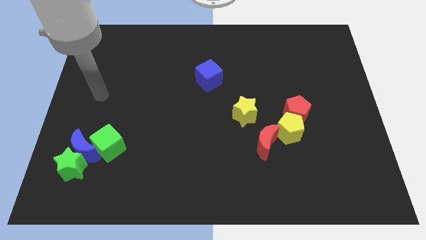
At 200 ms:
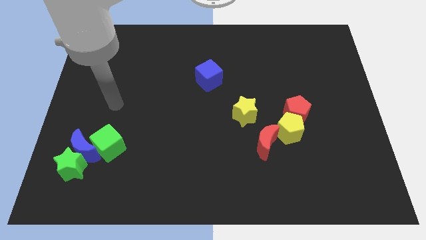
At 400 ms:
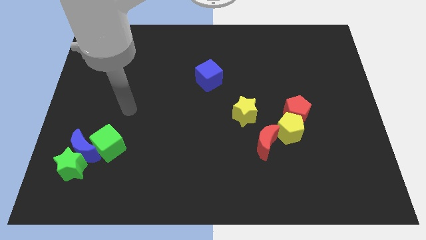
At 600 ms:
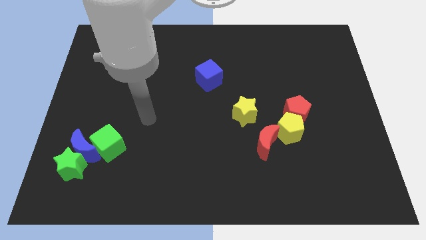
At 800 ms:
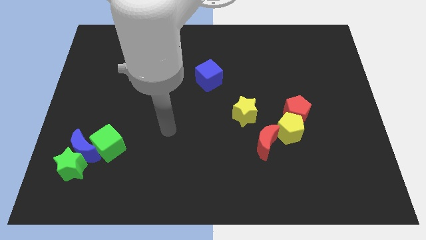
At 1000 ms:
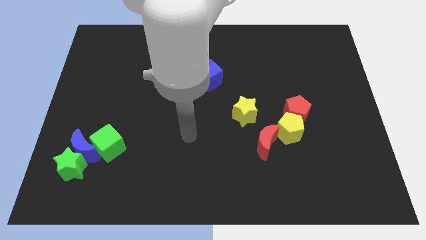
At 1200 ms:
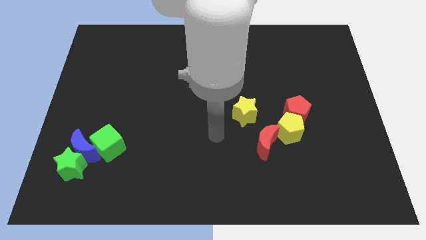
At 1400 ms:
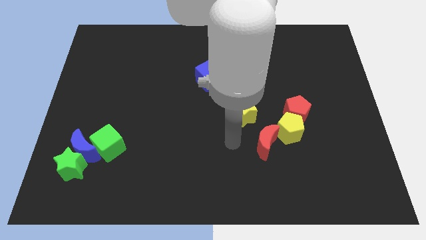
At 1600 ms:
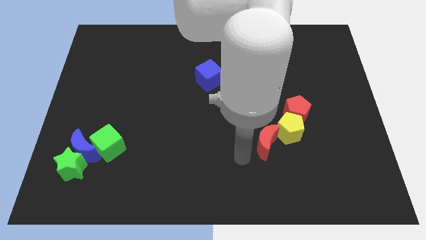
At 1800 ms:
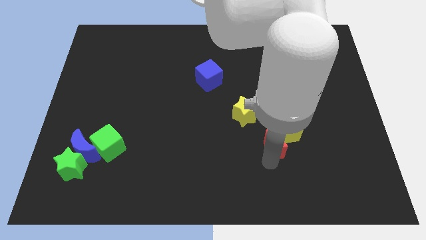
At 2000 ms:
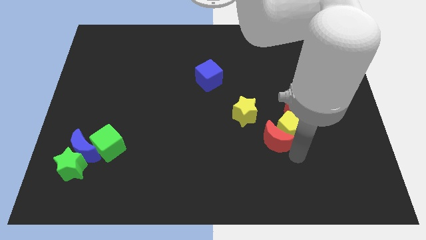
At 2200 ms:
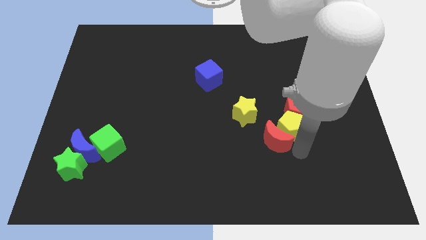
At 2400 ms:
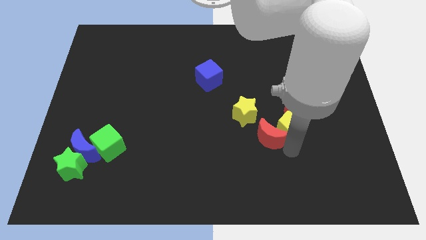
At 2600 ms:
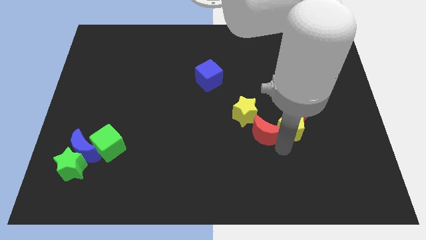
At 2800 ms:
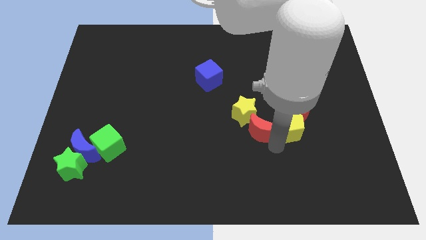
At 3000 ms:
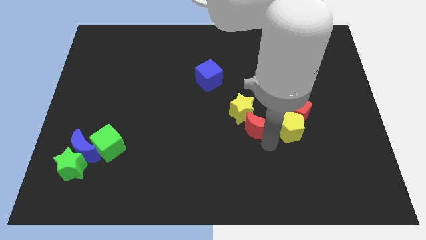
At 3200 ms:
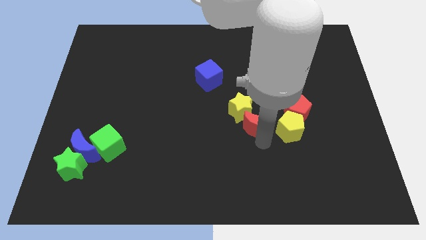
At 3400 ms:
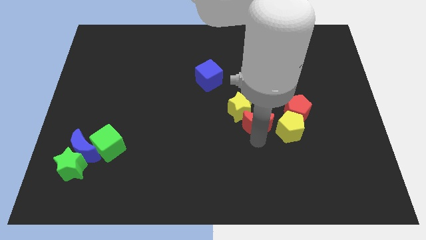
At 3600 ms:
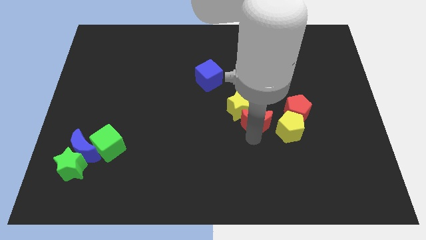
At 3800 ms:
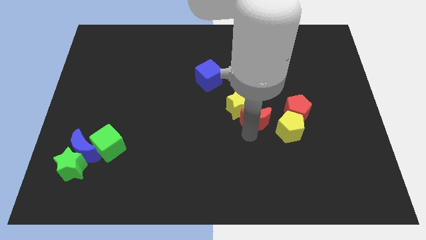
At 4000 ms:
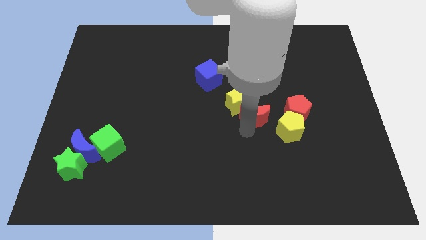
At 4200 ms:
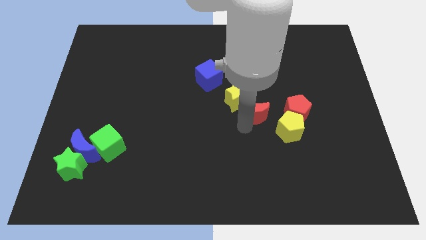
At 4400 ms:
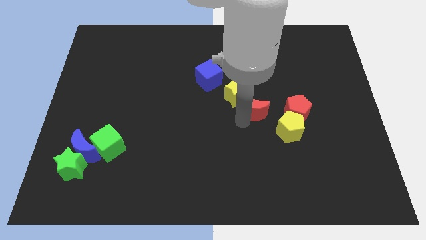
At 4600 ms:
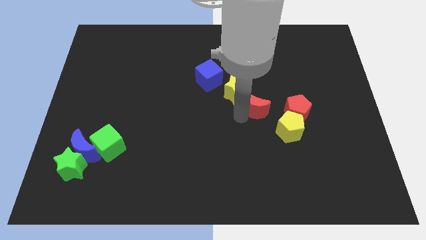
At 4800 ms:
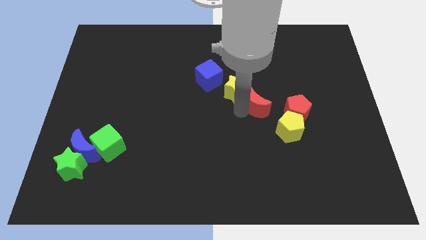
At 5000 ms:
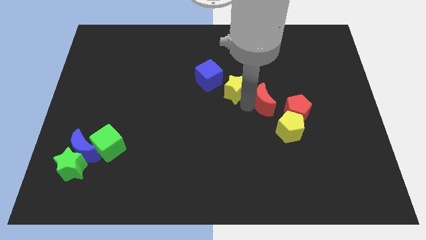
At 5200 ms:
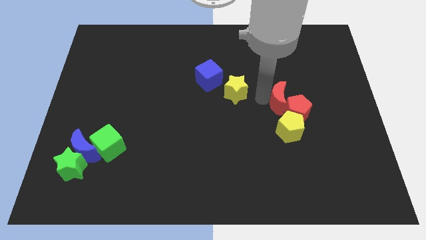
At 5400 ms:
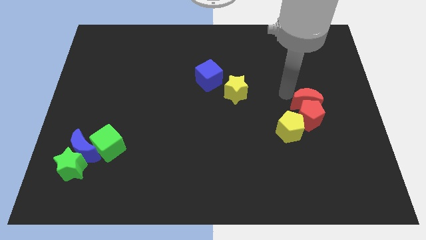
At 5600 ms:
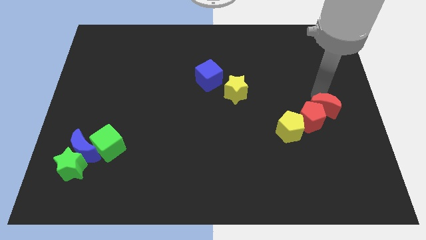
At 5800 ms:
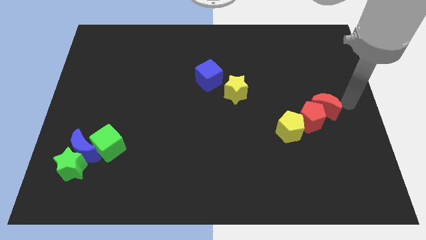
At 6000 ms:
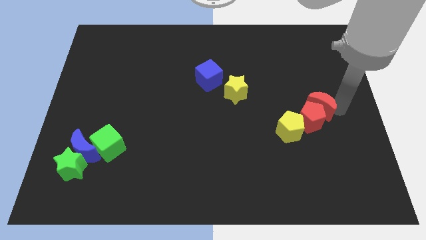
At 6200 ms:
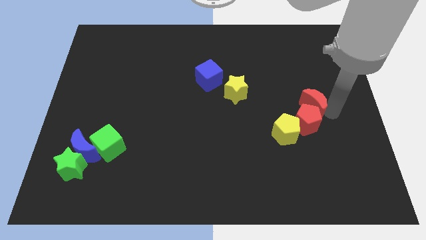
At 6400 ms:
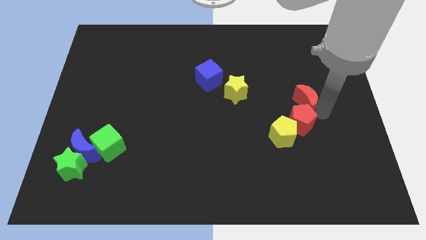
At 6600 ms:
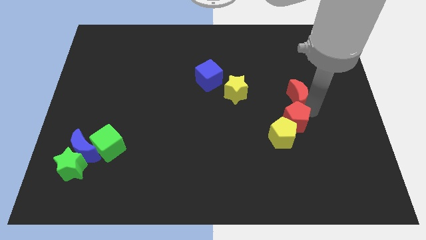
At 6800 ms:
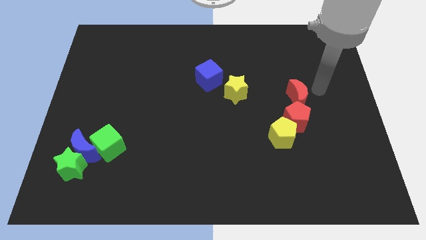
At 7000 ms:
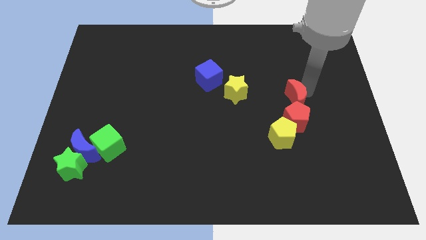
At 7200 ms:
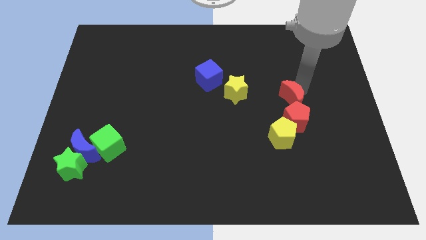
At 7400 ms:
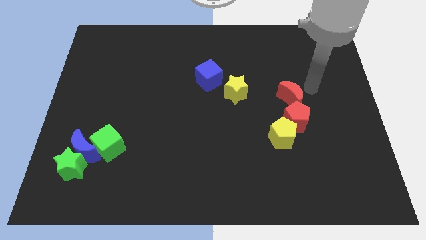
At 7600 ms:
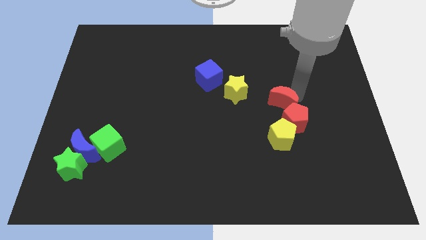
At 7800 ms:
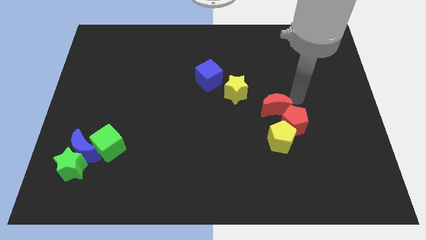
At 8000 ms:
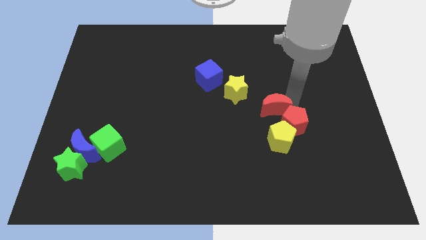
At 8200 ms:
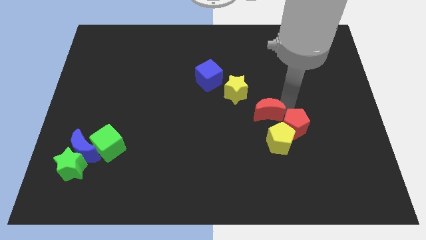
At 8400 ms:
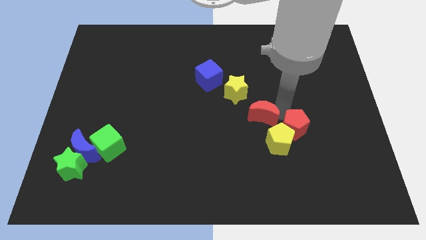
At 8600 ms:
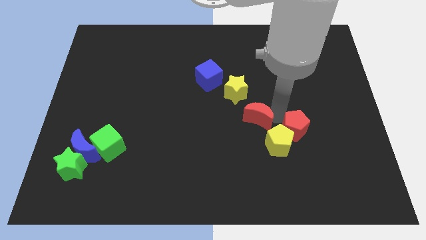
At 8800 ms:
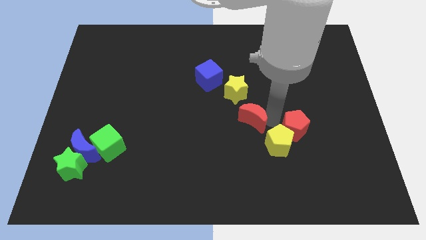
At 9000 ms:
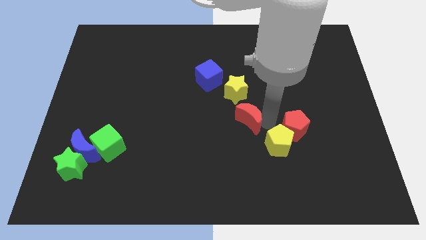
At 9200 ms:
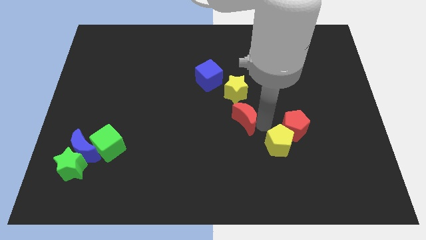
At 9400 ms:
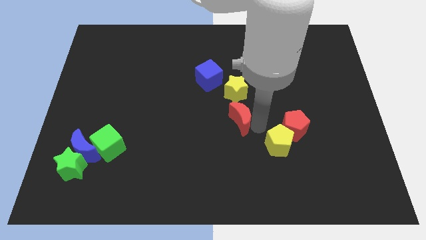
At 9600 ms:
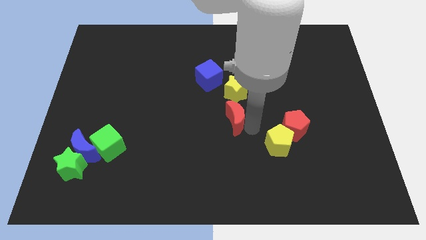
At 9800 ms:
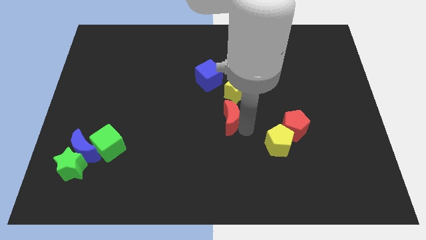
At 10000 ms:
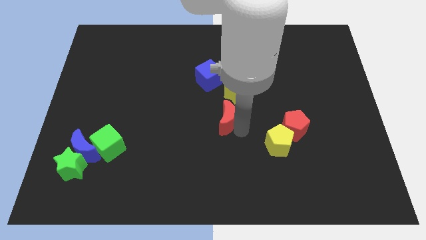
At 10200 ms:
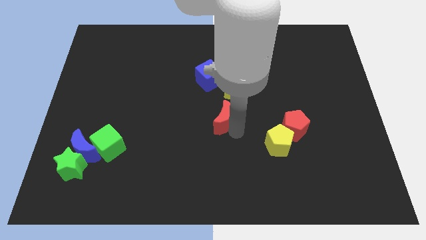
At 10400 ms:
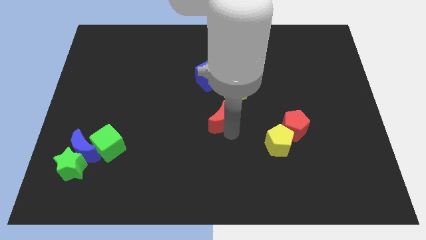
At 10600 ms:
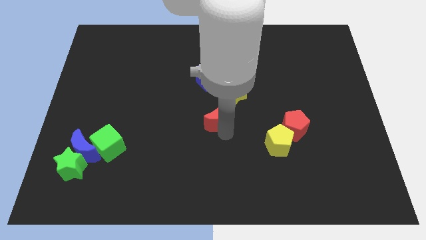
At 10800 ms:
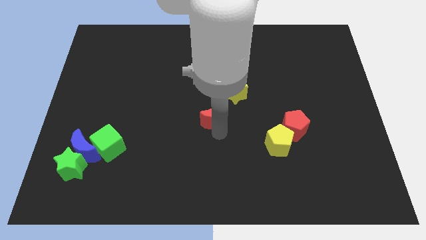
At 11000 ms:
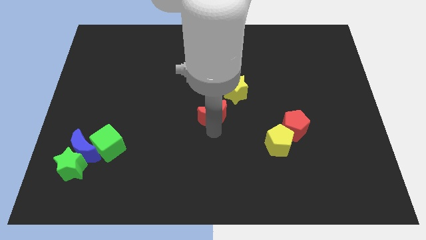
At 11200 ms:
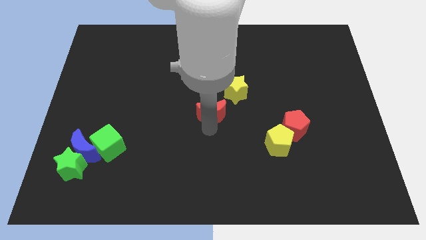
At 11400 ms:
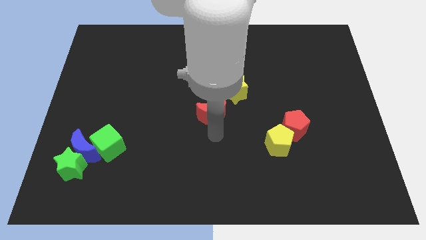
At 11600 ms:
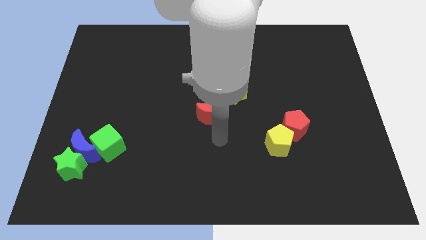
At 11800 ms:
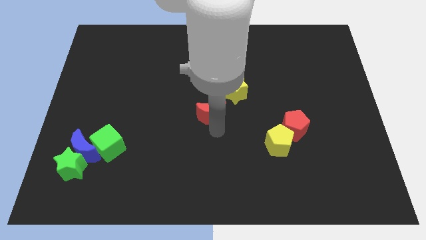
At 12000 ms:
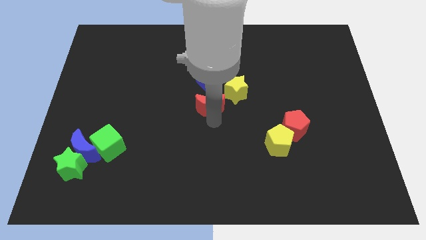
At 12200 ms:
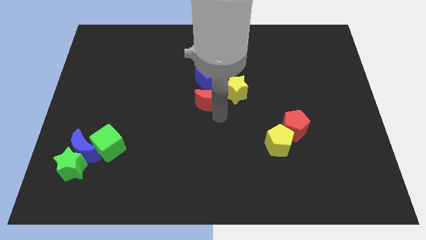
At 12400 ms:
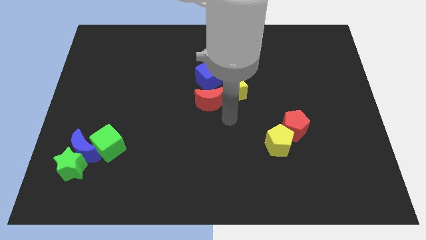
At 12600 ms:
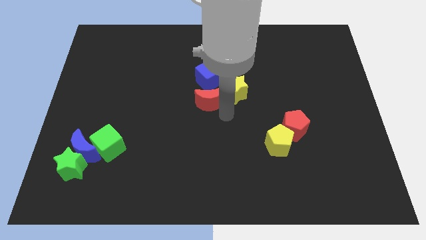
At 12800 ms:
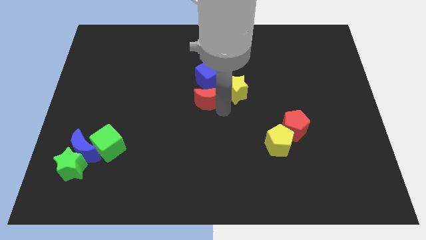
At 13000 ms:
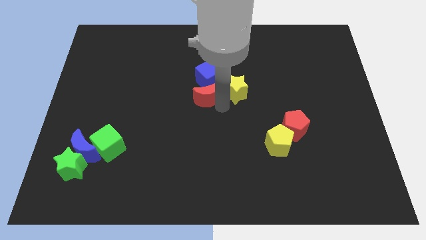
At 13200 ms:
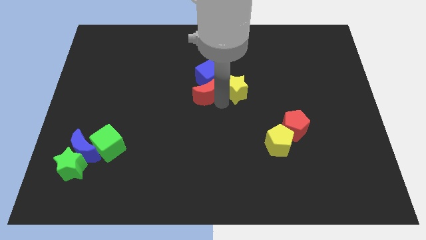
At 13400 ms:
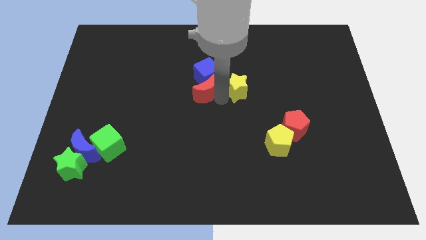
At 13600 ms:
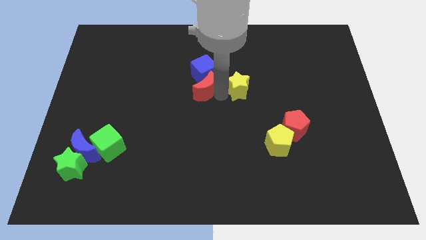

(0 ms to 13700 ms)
slide the red moon upwards and left diagonally

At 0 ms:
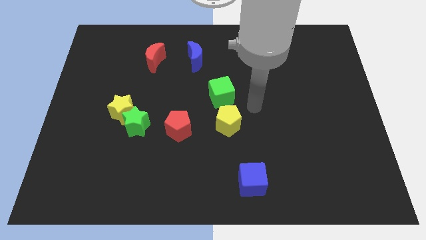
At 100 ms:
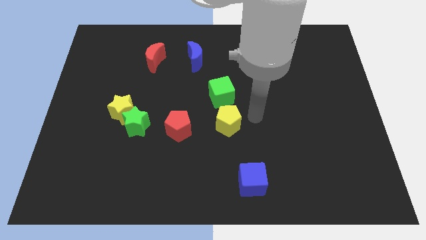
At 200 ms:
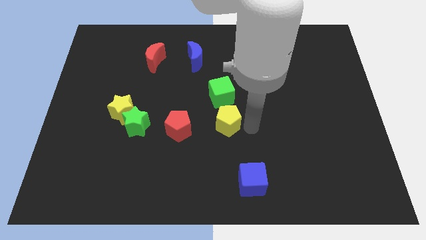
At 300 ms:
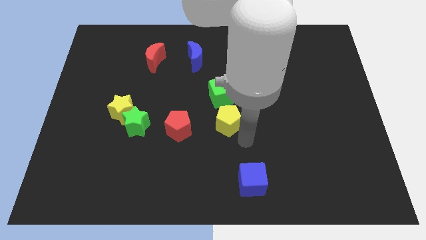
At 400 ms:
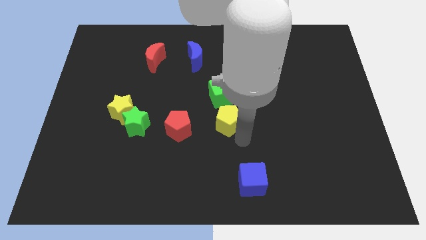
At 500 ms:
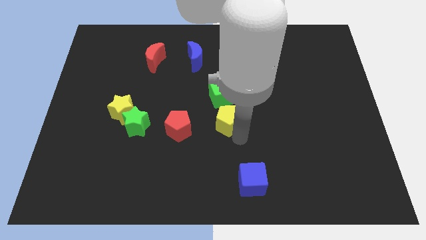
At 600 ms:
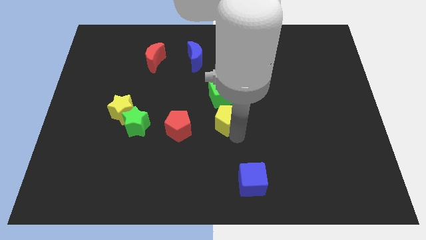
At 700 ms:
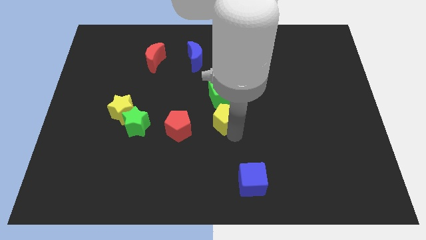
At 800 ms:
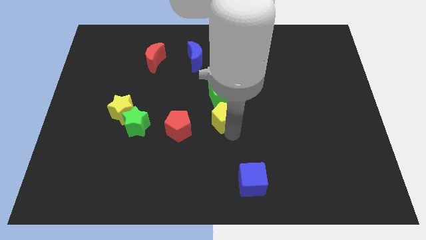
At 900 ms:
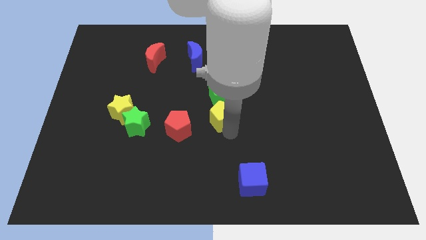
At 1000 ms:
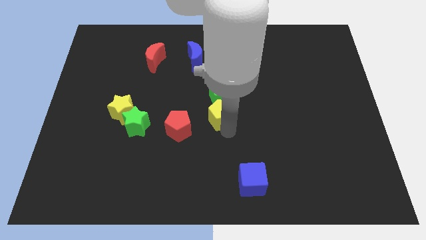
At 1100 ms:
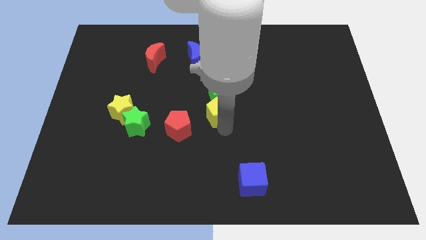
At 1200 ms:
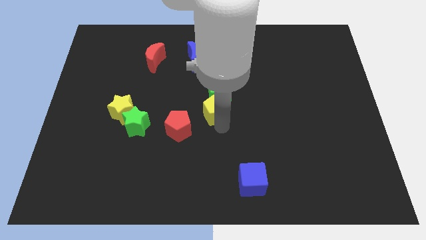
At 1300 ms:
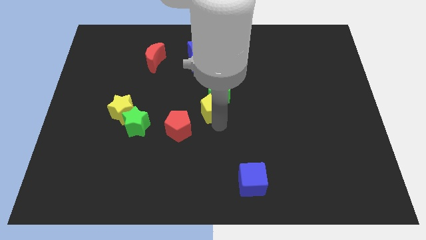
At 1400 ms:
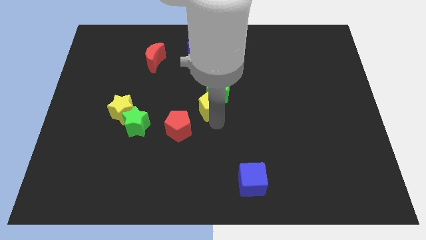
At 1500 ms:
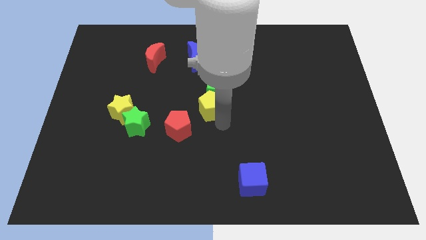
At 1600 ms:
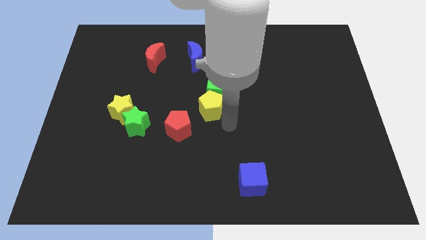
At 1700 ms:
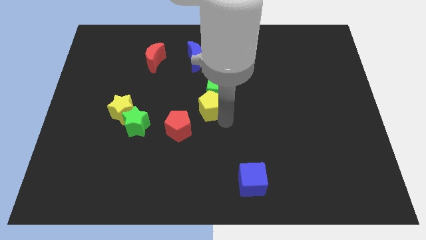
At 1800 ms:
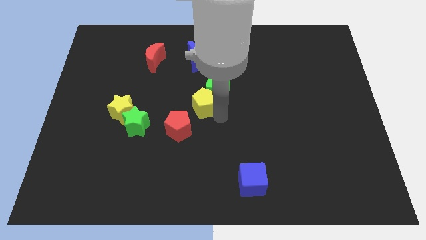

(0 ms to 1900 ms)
move the yellow pentagon slightly up and then left
